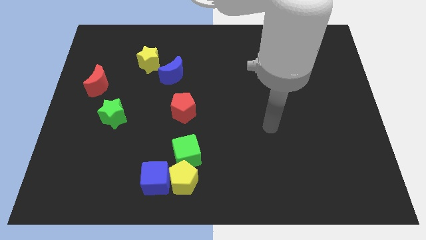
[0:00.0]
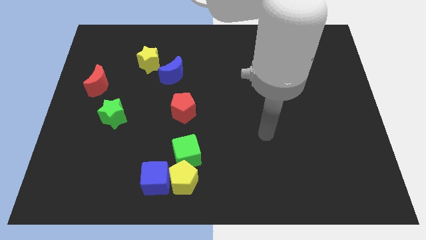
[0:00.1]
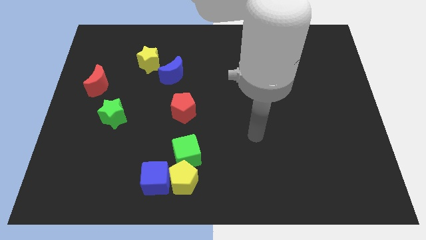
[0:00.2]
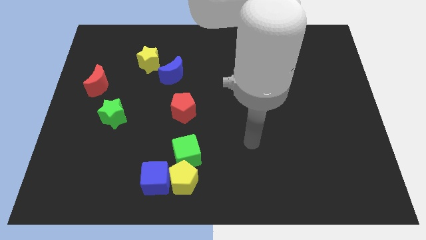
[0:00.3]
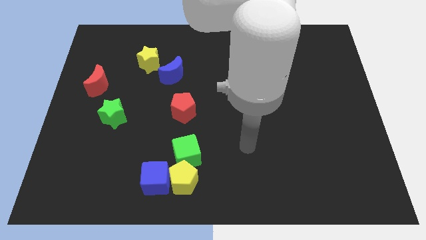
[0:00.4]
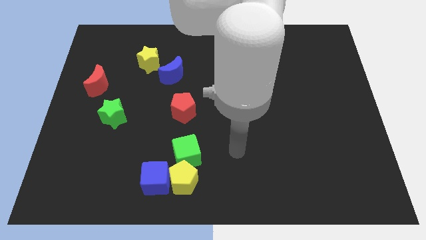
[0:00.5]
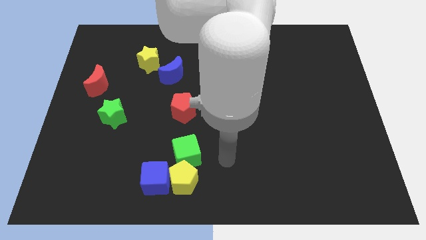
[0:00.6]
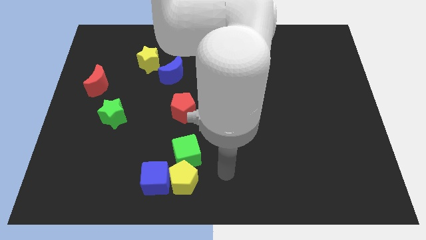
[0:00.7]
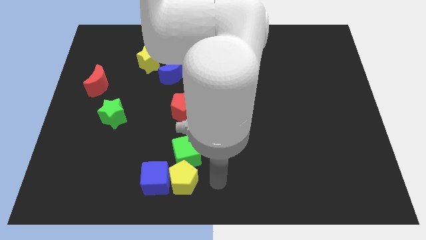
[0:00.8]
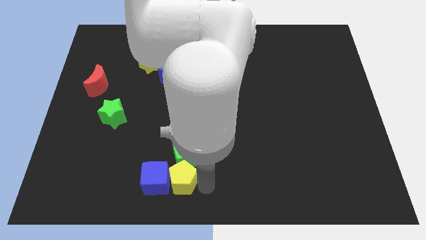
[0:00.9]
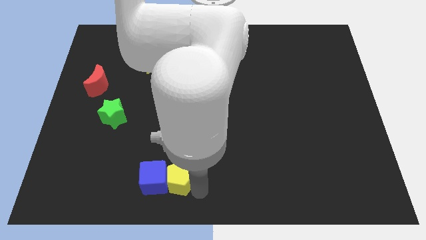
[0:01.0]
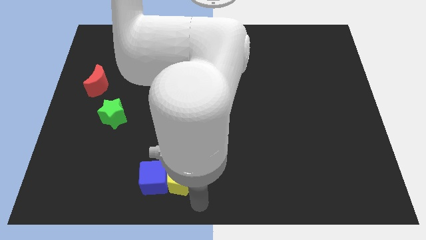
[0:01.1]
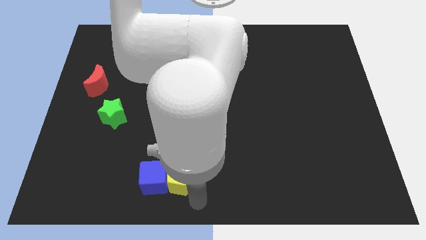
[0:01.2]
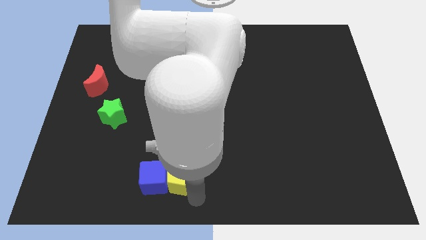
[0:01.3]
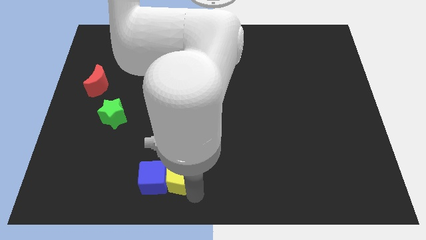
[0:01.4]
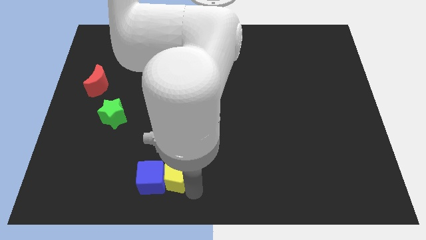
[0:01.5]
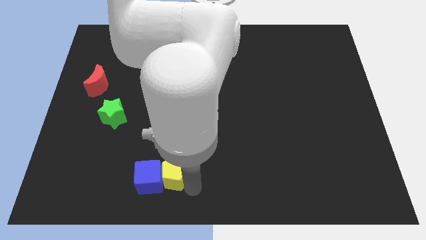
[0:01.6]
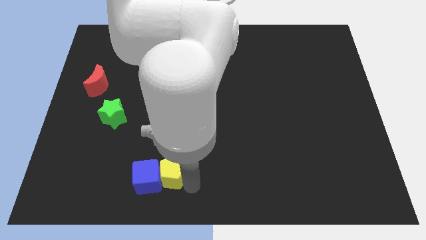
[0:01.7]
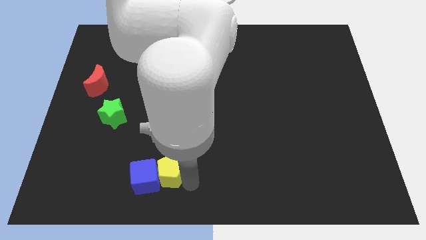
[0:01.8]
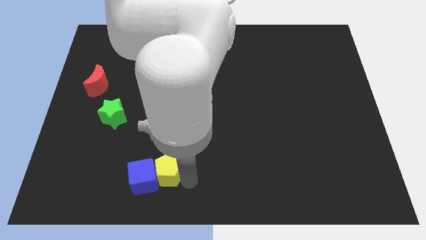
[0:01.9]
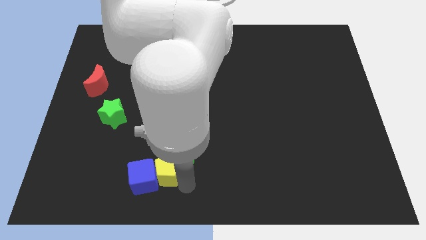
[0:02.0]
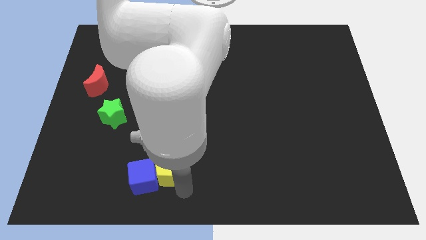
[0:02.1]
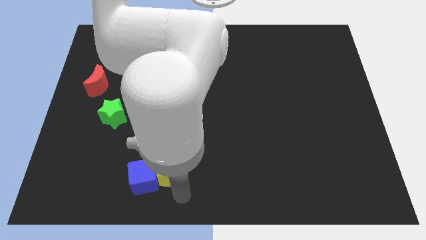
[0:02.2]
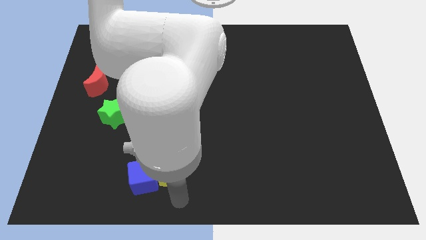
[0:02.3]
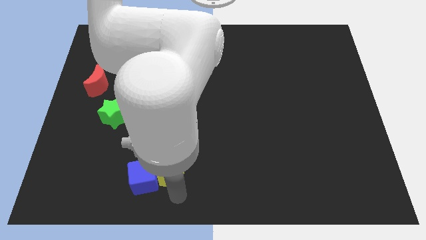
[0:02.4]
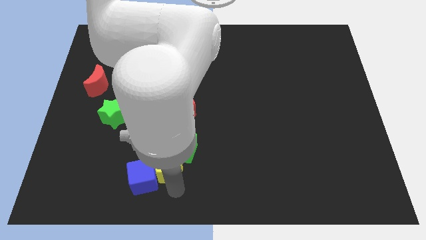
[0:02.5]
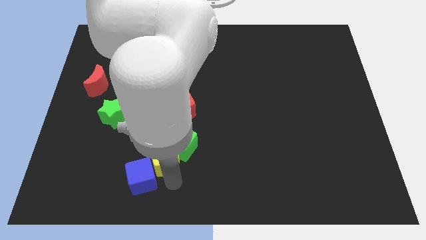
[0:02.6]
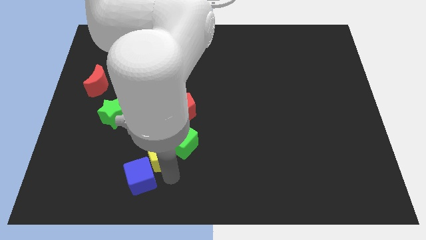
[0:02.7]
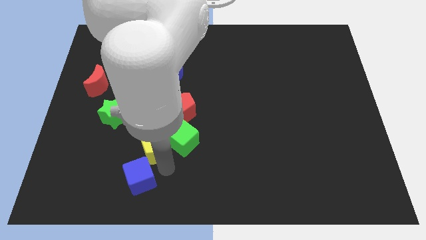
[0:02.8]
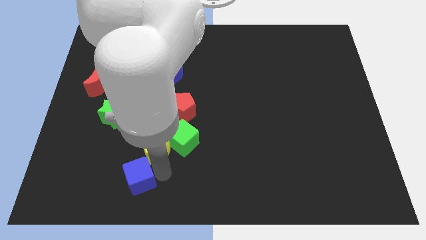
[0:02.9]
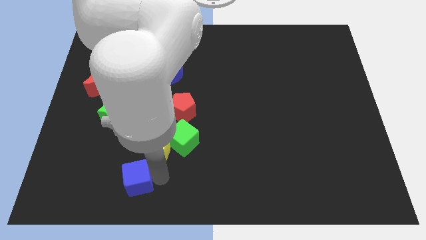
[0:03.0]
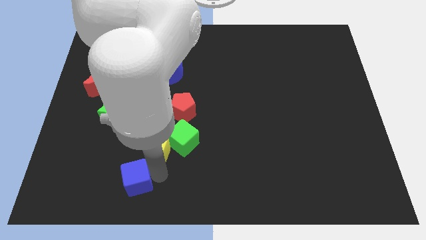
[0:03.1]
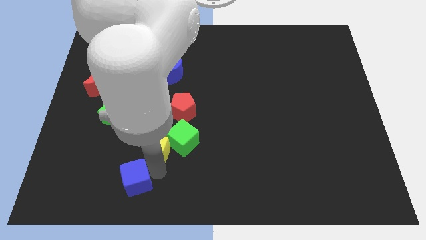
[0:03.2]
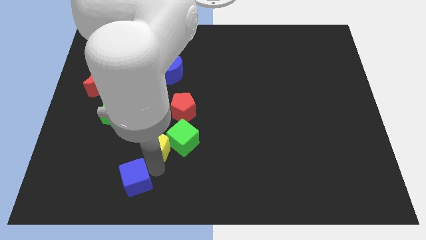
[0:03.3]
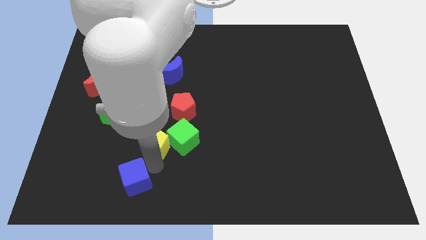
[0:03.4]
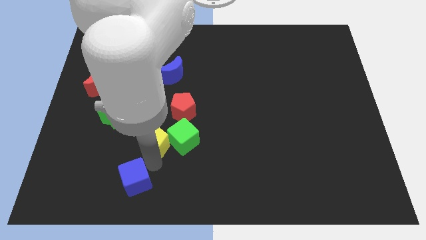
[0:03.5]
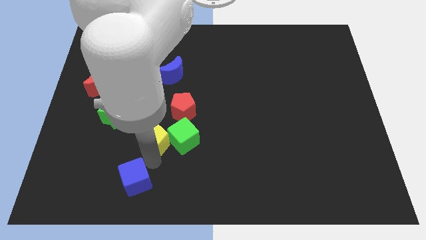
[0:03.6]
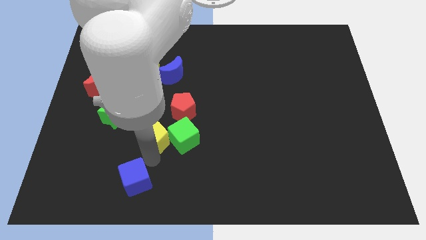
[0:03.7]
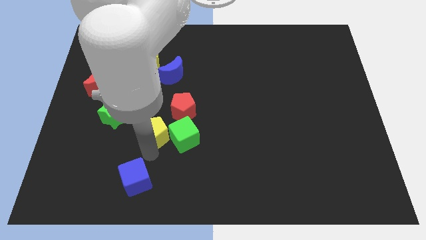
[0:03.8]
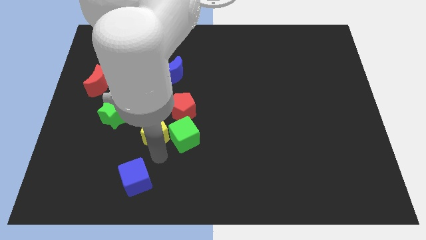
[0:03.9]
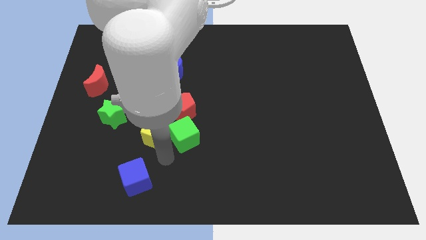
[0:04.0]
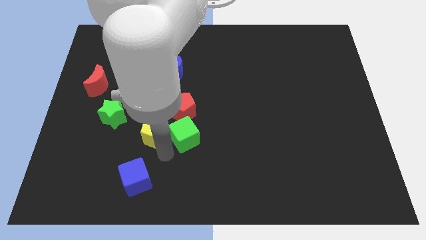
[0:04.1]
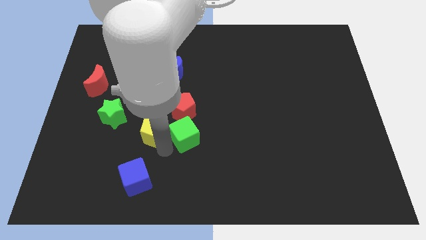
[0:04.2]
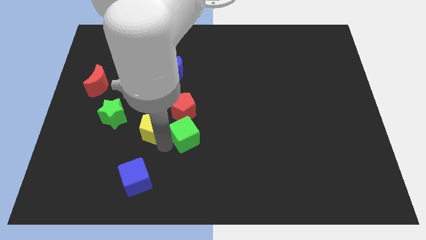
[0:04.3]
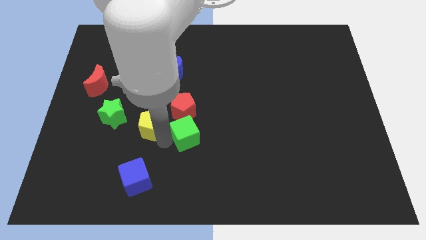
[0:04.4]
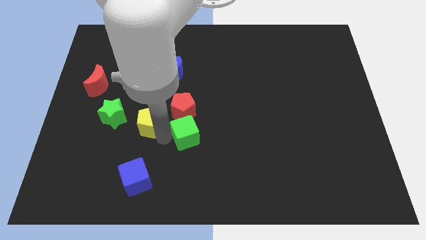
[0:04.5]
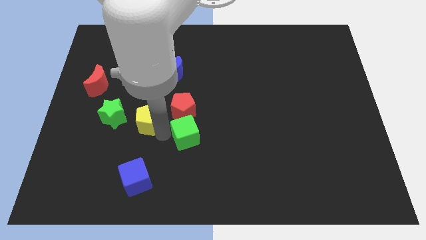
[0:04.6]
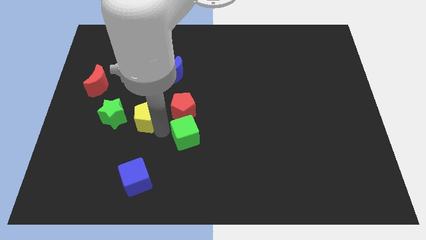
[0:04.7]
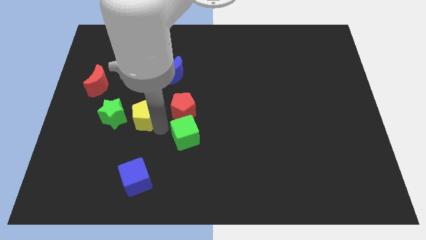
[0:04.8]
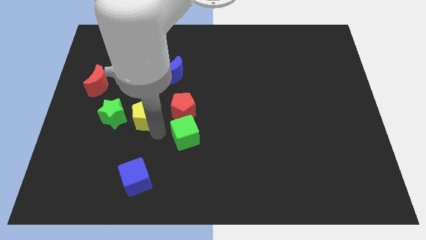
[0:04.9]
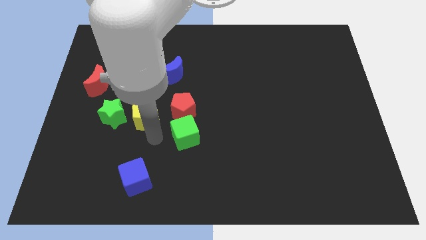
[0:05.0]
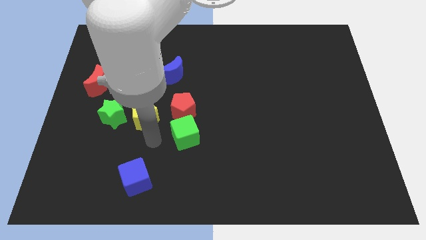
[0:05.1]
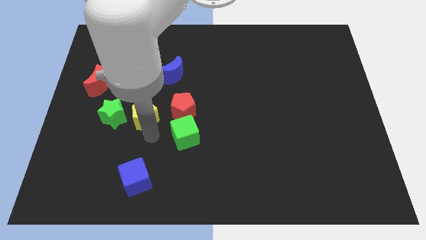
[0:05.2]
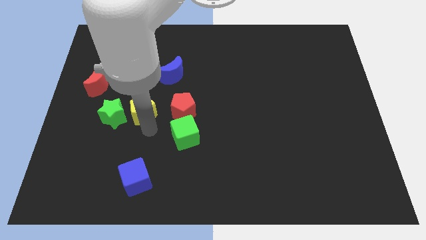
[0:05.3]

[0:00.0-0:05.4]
push the yellow pentagon diagonally up and to the right of the green star

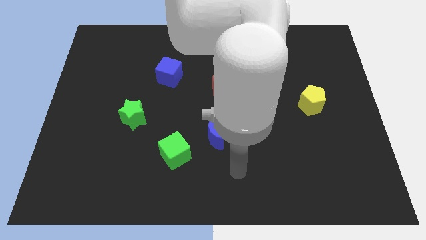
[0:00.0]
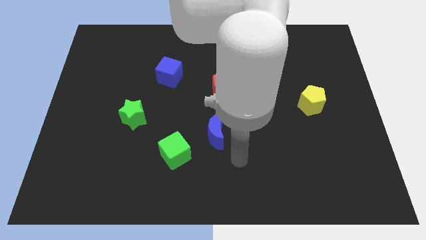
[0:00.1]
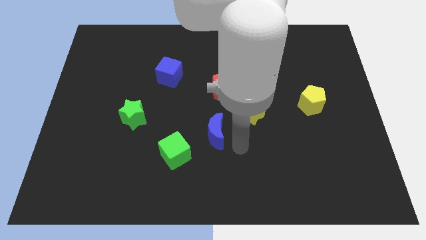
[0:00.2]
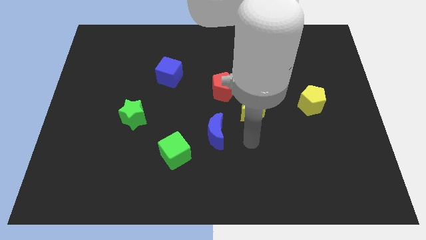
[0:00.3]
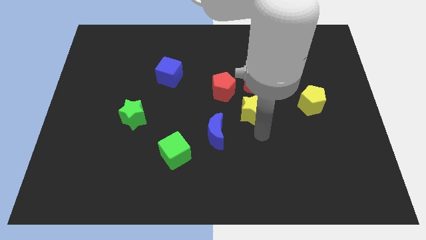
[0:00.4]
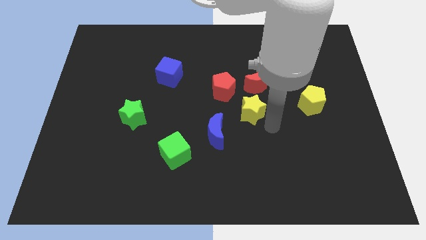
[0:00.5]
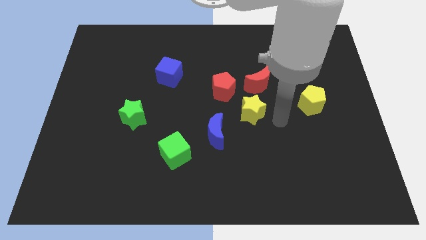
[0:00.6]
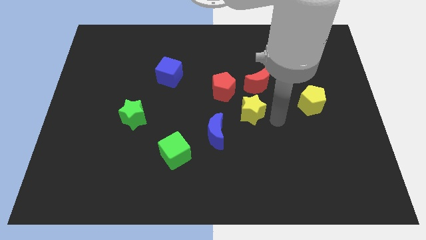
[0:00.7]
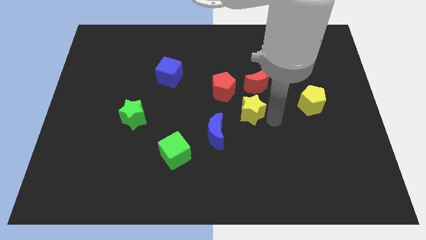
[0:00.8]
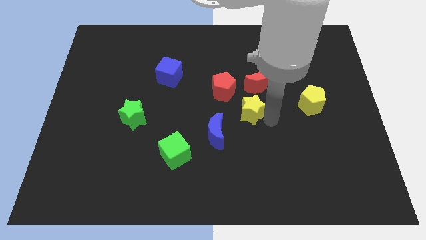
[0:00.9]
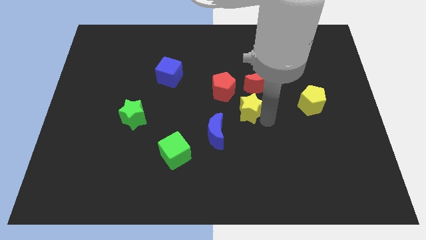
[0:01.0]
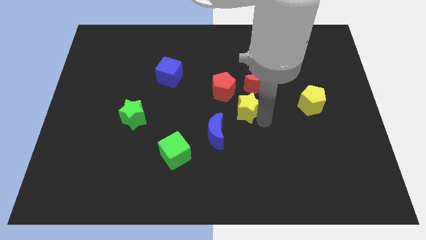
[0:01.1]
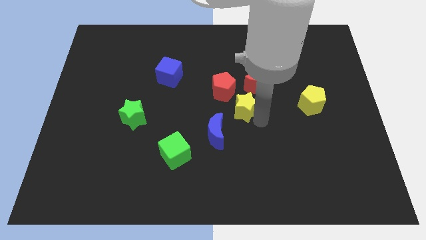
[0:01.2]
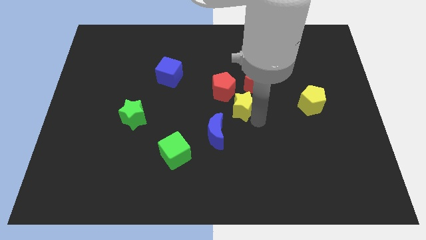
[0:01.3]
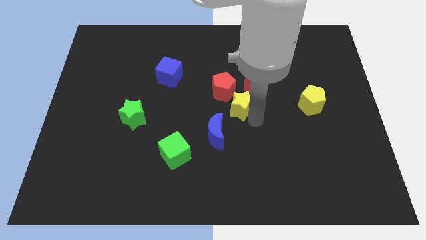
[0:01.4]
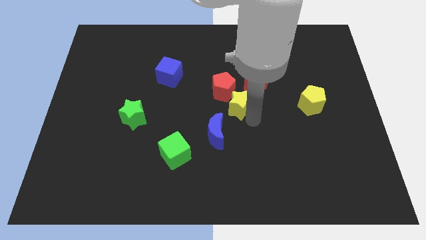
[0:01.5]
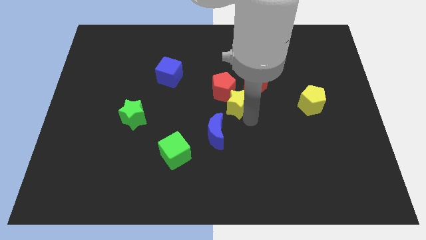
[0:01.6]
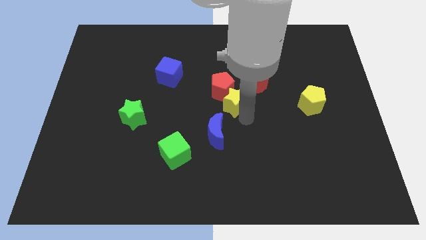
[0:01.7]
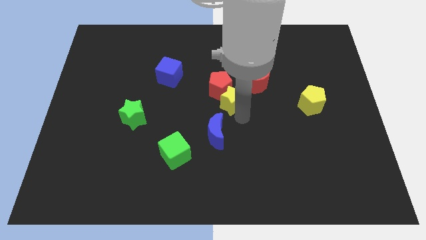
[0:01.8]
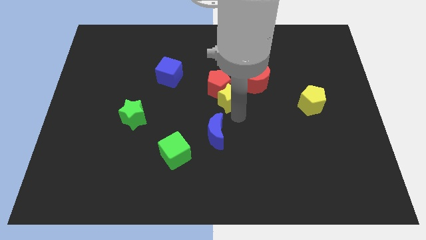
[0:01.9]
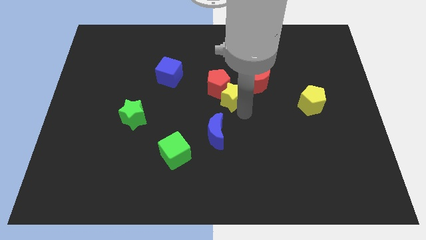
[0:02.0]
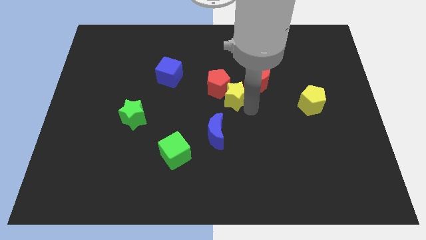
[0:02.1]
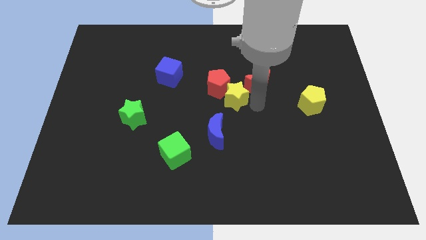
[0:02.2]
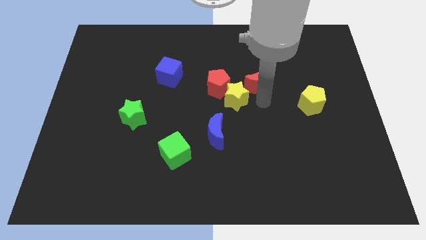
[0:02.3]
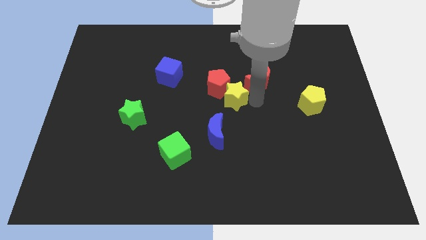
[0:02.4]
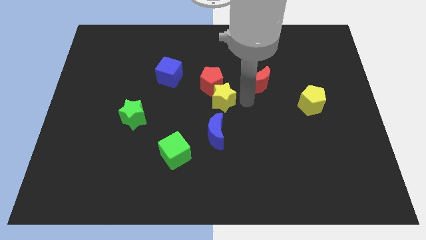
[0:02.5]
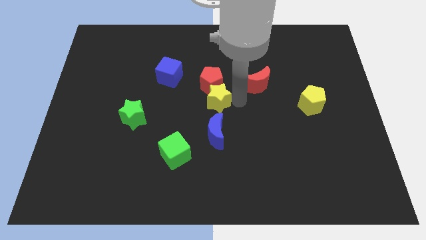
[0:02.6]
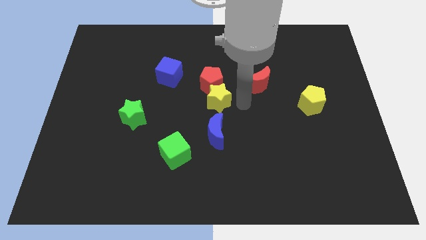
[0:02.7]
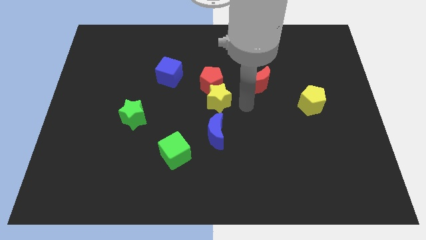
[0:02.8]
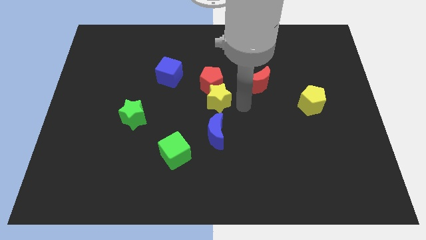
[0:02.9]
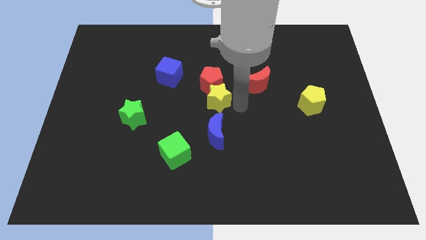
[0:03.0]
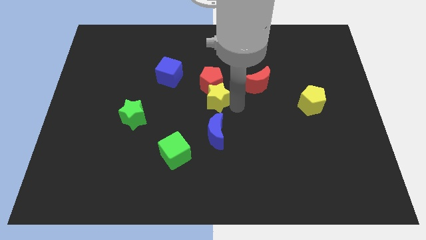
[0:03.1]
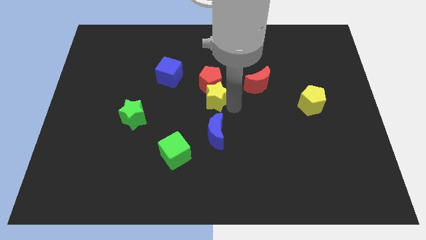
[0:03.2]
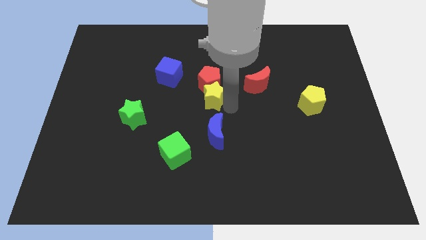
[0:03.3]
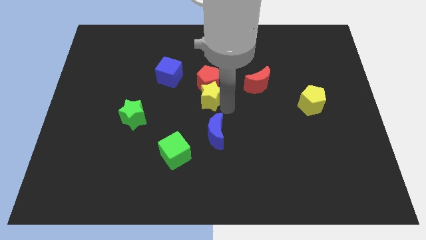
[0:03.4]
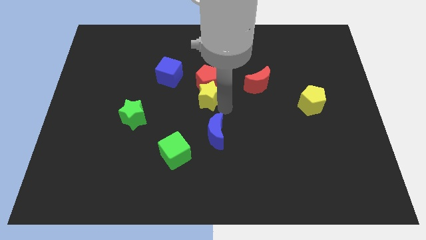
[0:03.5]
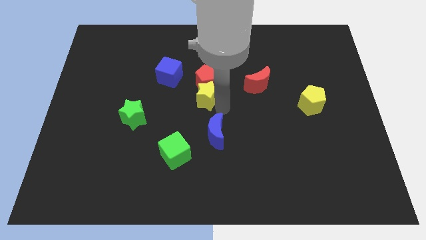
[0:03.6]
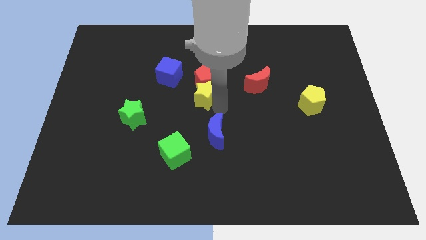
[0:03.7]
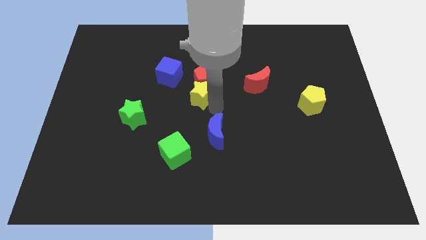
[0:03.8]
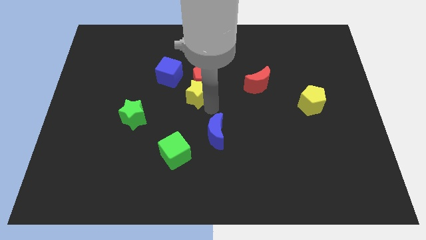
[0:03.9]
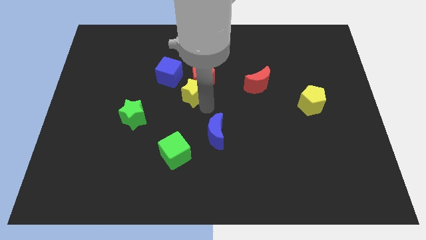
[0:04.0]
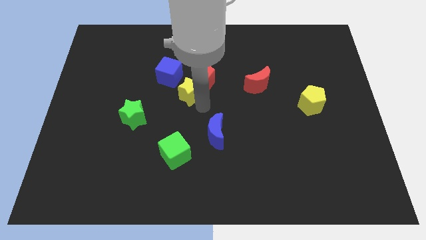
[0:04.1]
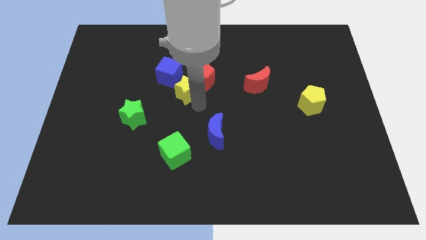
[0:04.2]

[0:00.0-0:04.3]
put the yellow star to the left of the red pentagon
